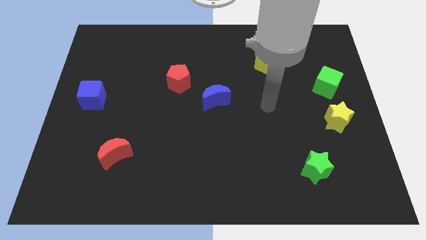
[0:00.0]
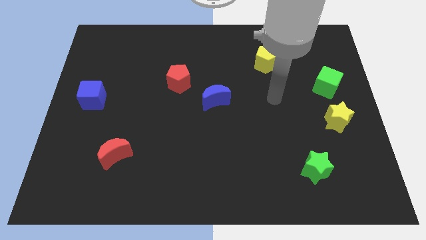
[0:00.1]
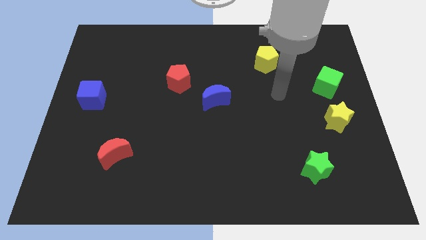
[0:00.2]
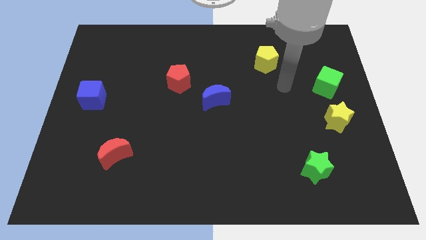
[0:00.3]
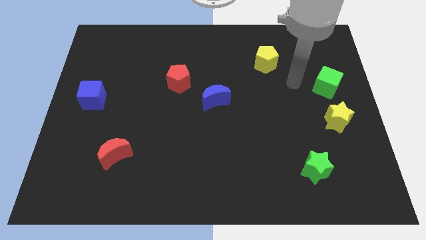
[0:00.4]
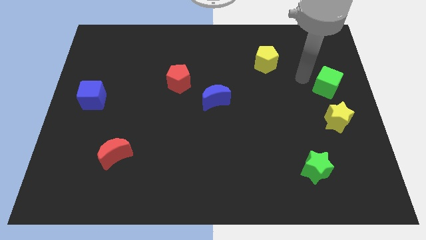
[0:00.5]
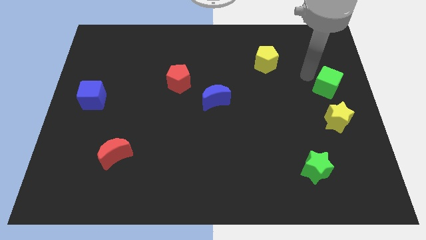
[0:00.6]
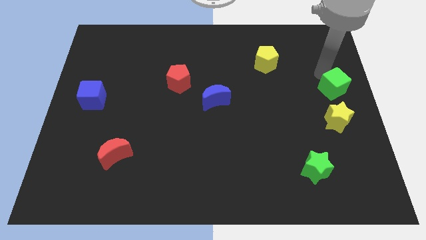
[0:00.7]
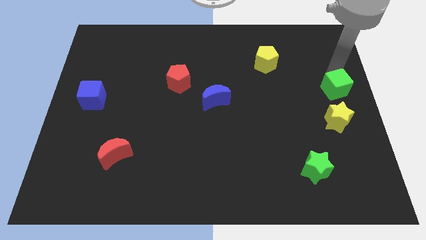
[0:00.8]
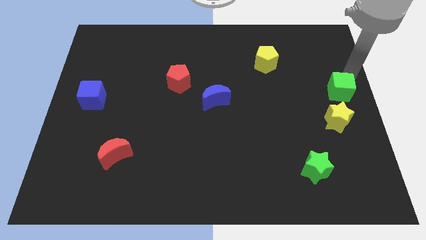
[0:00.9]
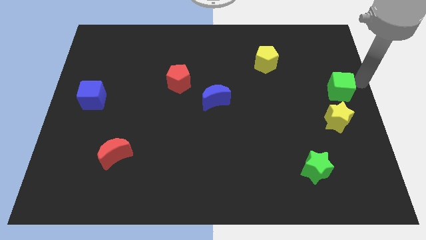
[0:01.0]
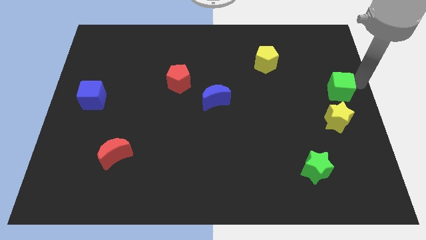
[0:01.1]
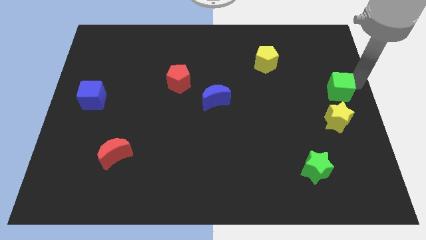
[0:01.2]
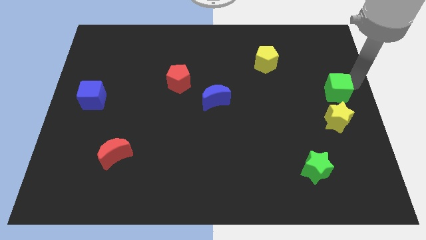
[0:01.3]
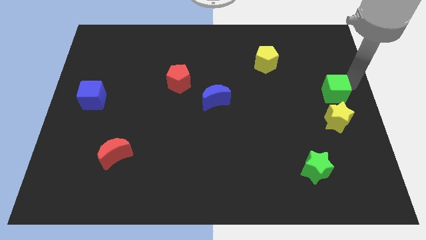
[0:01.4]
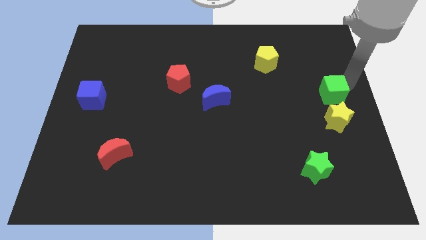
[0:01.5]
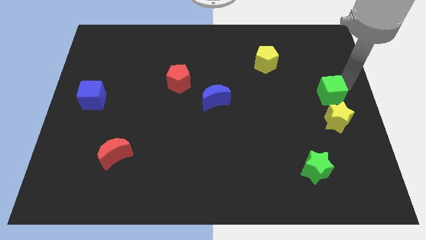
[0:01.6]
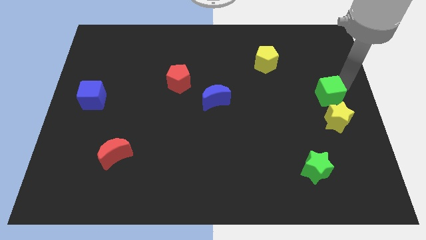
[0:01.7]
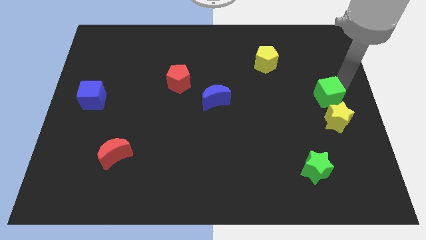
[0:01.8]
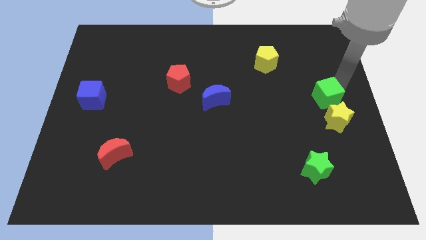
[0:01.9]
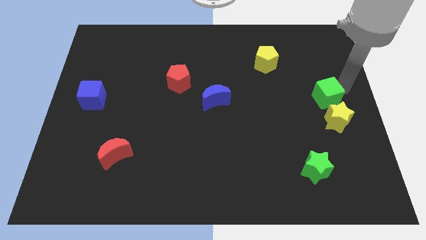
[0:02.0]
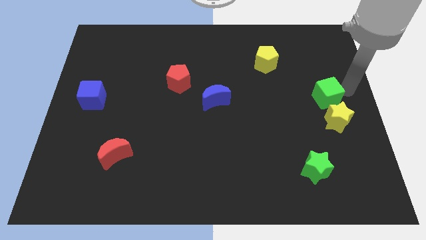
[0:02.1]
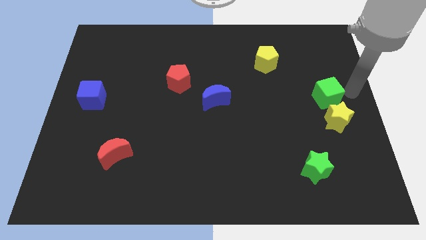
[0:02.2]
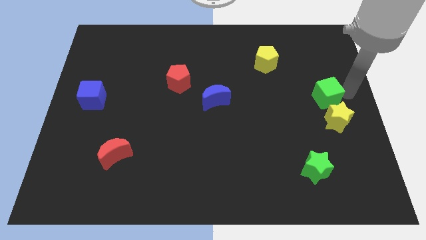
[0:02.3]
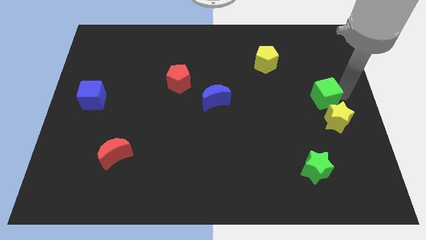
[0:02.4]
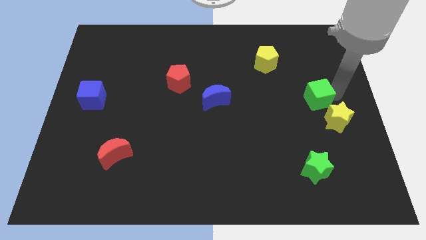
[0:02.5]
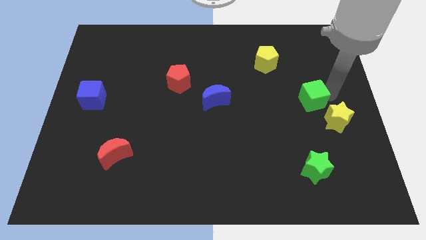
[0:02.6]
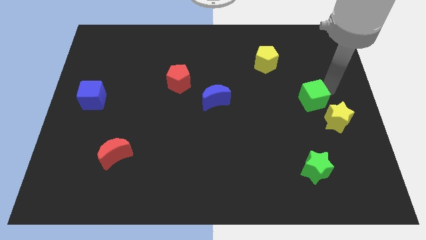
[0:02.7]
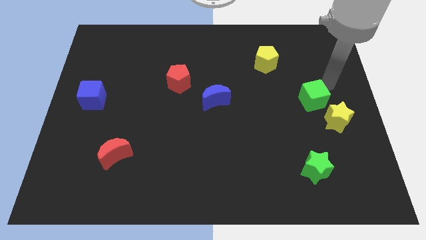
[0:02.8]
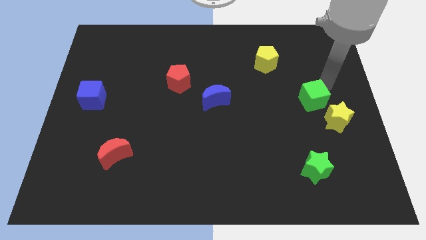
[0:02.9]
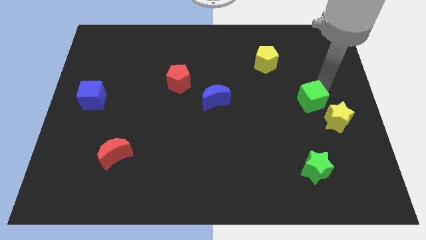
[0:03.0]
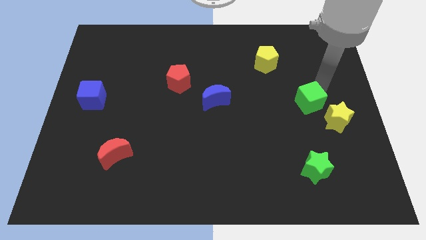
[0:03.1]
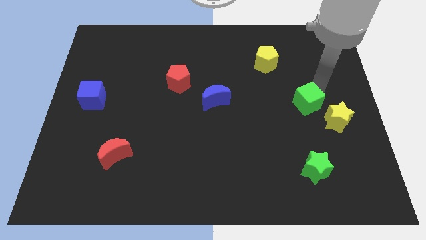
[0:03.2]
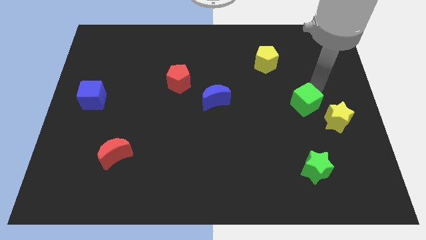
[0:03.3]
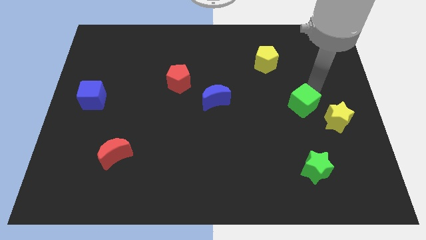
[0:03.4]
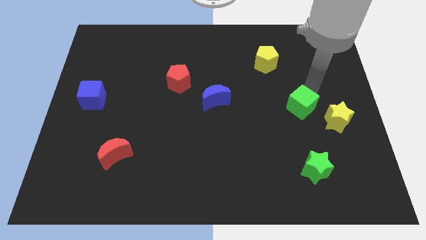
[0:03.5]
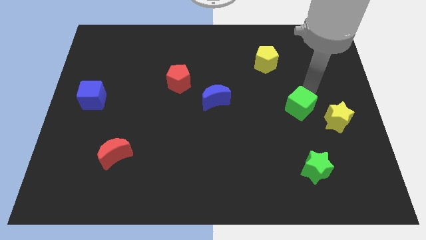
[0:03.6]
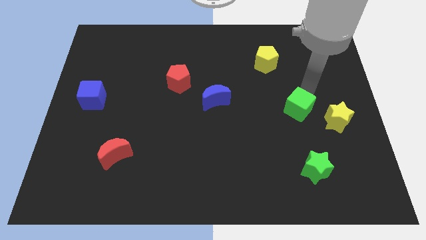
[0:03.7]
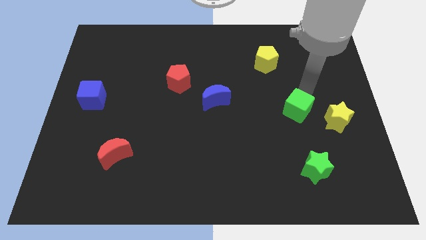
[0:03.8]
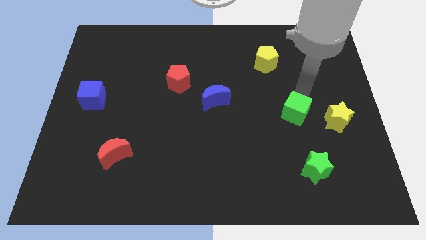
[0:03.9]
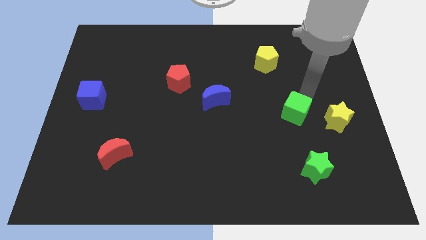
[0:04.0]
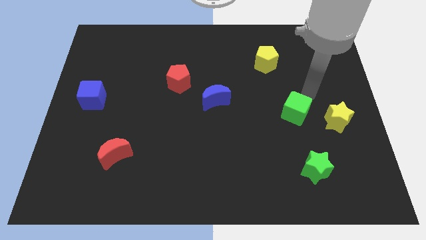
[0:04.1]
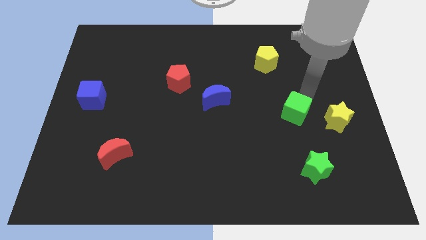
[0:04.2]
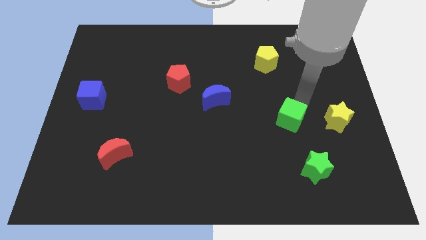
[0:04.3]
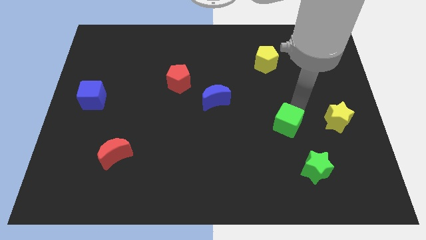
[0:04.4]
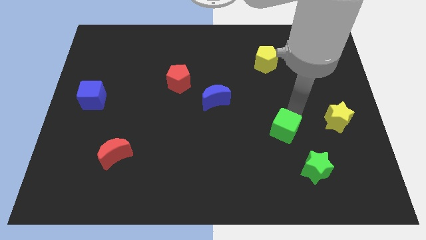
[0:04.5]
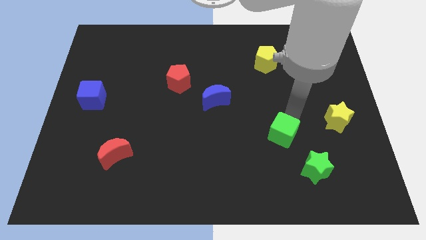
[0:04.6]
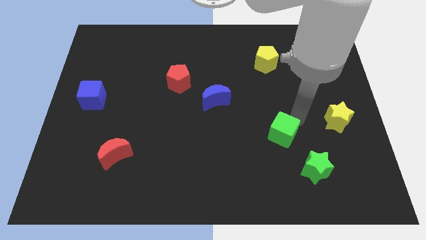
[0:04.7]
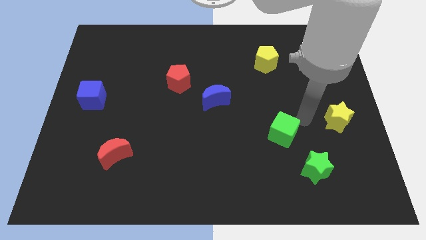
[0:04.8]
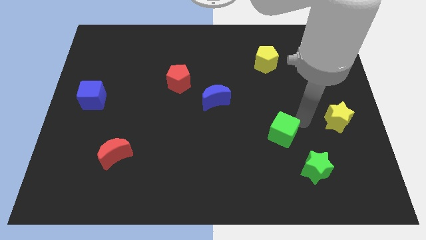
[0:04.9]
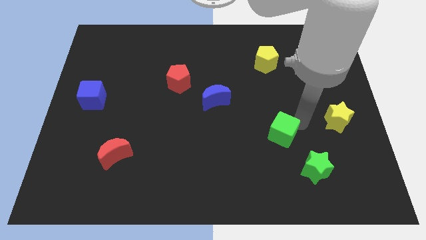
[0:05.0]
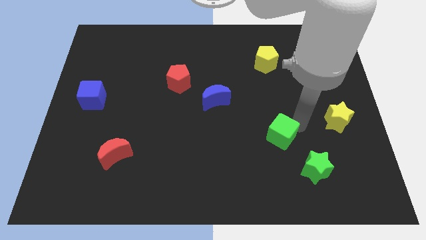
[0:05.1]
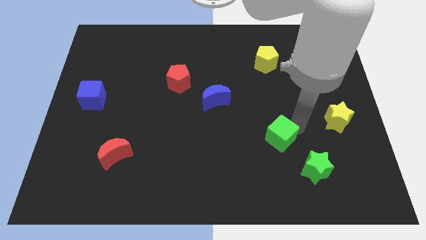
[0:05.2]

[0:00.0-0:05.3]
slide the green cube downwards and to the left

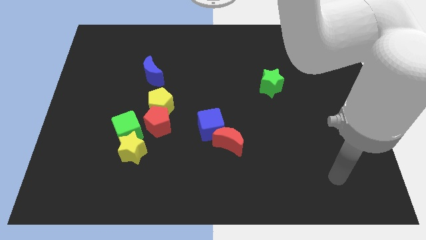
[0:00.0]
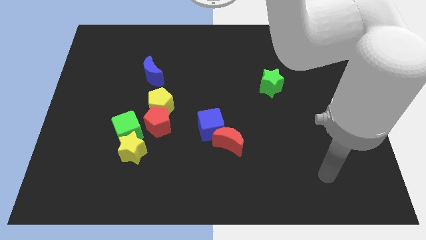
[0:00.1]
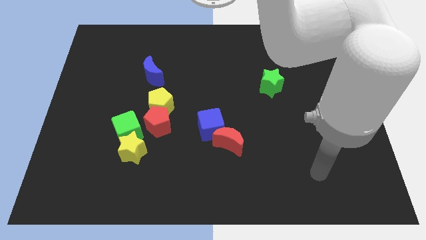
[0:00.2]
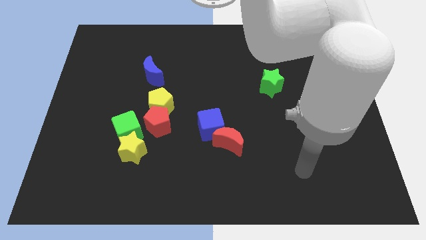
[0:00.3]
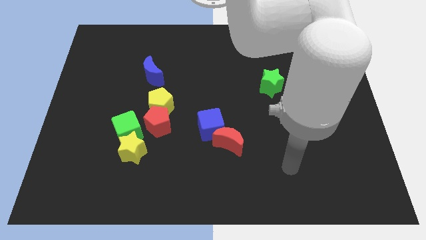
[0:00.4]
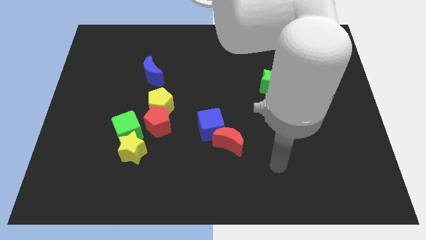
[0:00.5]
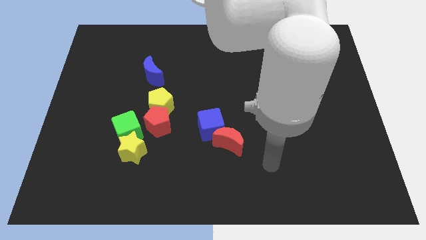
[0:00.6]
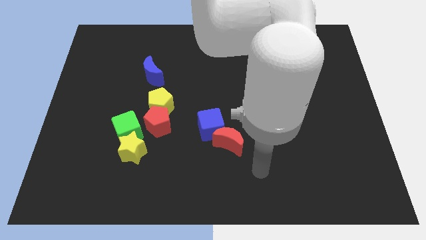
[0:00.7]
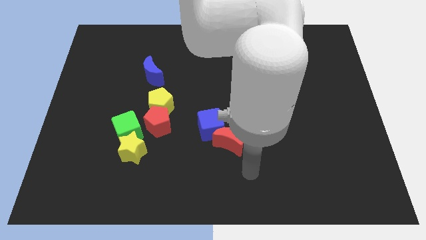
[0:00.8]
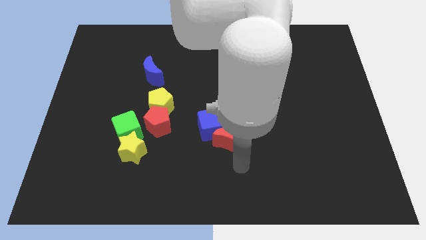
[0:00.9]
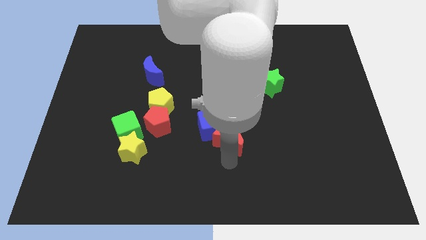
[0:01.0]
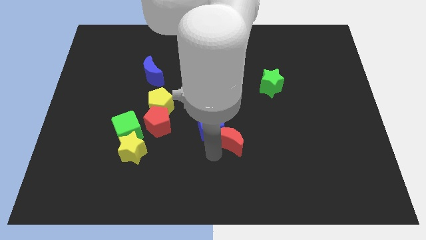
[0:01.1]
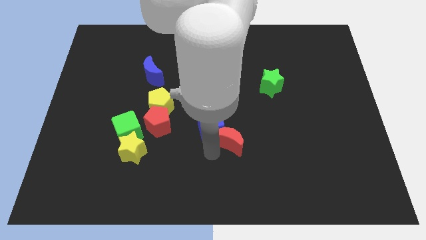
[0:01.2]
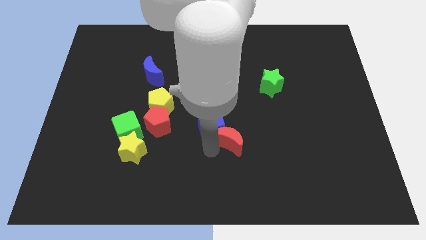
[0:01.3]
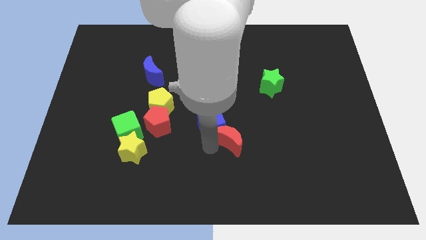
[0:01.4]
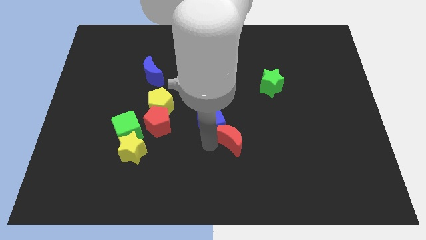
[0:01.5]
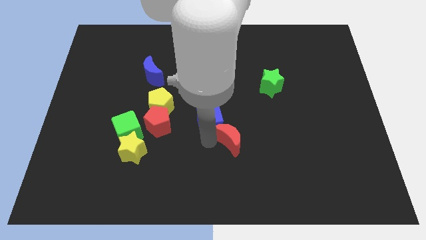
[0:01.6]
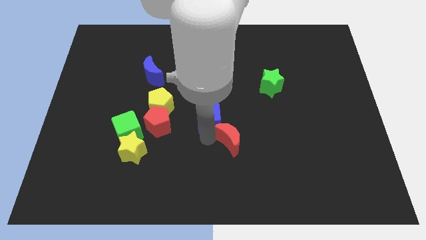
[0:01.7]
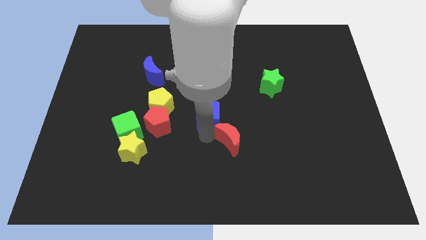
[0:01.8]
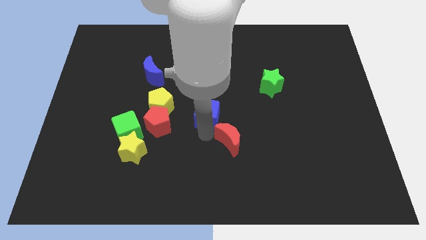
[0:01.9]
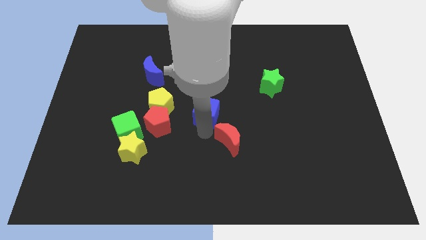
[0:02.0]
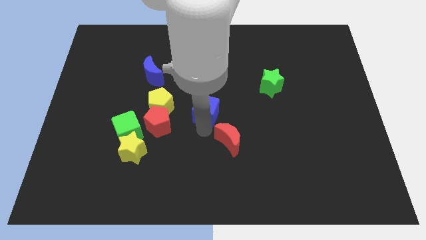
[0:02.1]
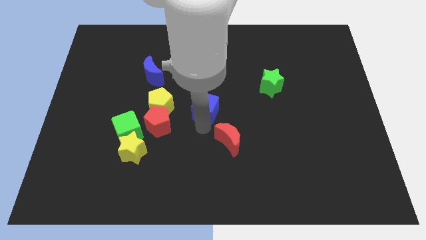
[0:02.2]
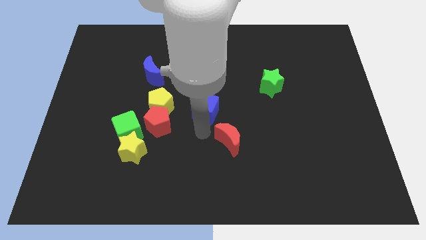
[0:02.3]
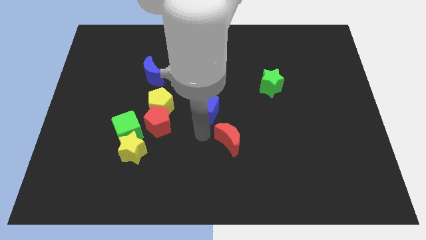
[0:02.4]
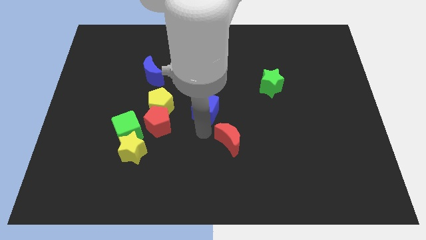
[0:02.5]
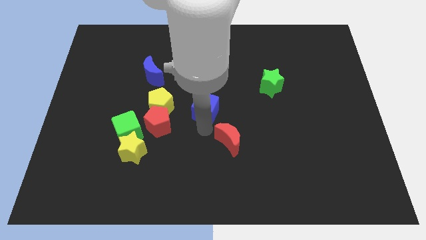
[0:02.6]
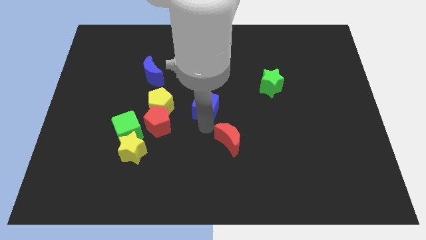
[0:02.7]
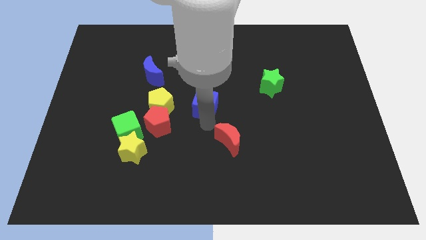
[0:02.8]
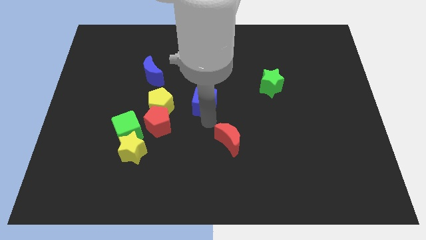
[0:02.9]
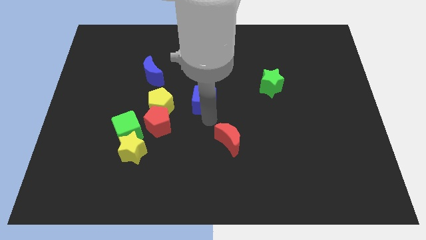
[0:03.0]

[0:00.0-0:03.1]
slightly push the blue cube upwards
